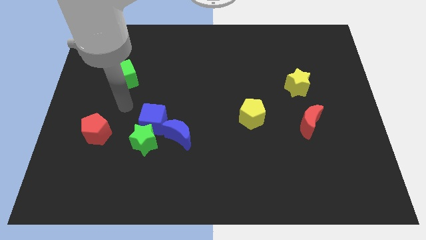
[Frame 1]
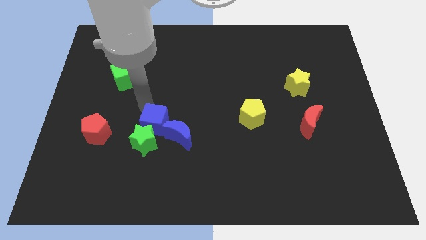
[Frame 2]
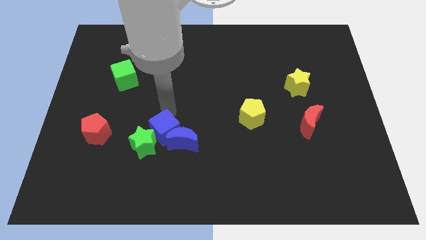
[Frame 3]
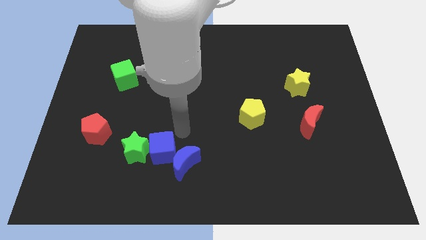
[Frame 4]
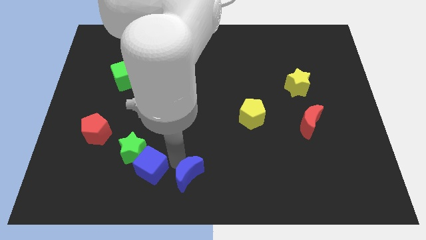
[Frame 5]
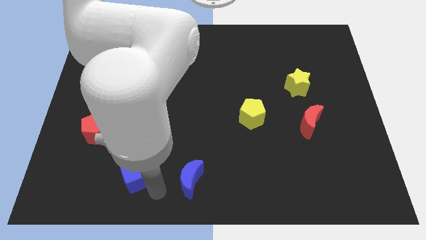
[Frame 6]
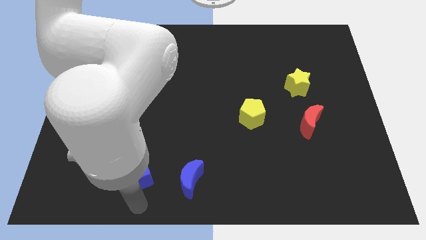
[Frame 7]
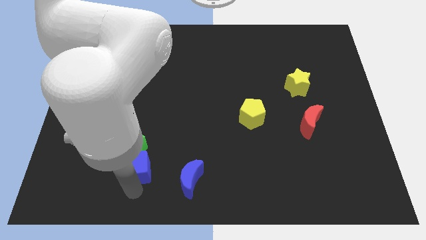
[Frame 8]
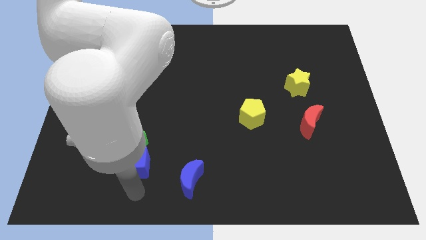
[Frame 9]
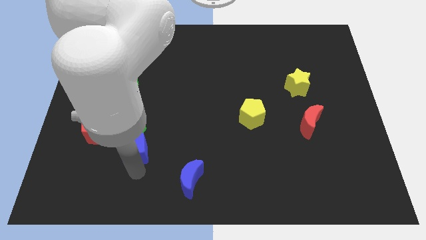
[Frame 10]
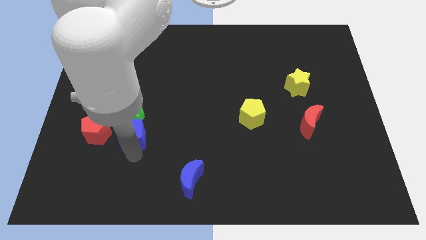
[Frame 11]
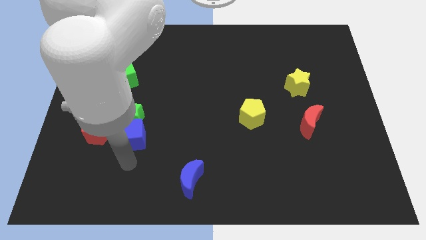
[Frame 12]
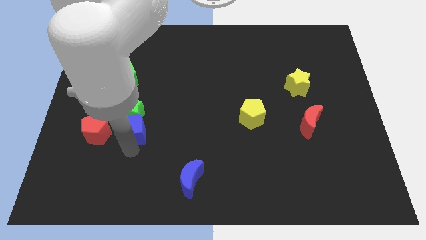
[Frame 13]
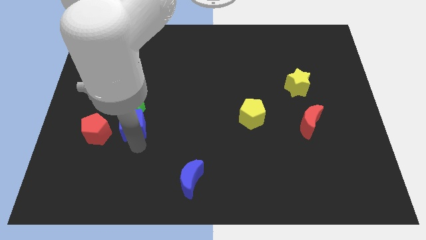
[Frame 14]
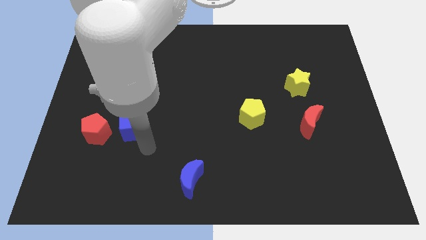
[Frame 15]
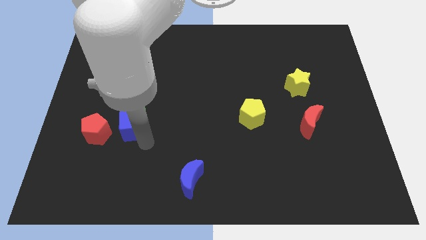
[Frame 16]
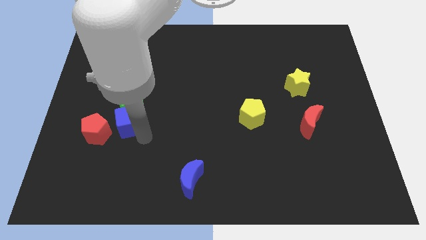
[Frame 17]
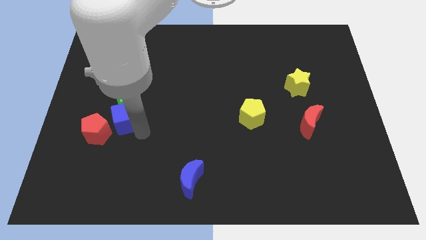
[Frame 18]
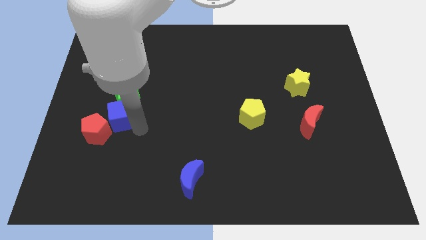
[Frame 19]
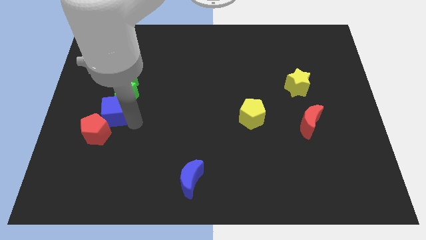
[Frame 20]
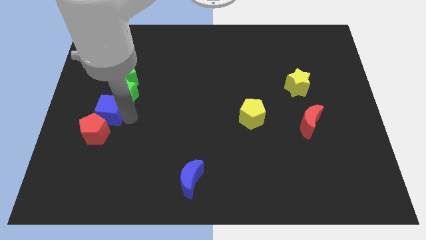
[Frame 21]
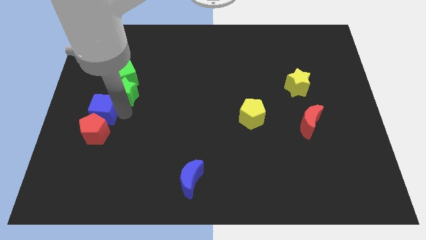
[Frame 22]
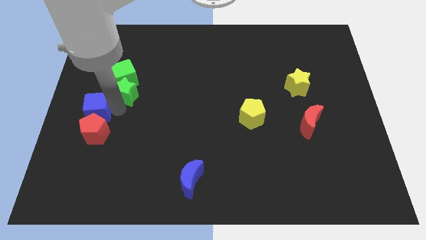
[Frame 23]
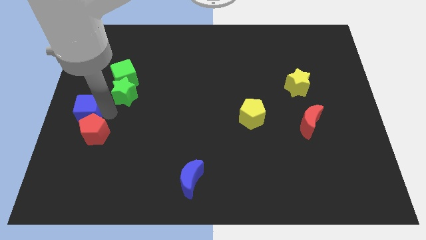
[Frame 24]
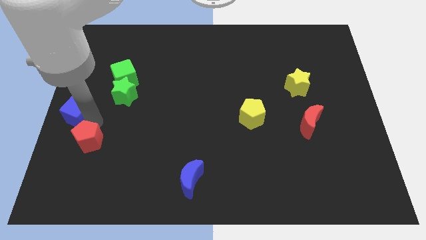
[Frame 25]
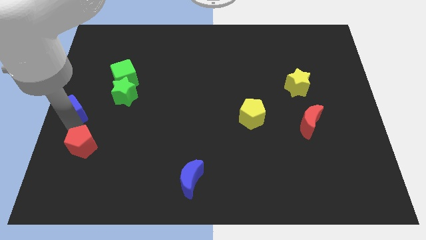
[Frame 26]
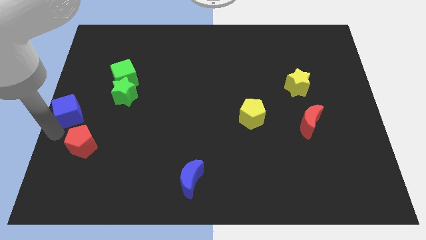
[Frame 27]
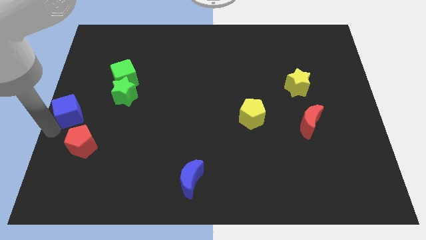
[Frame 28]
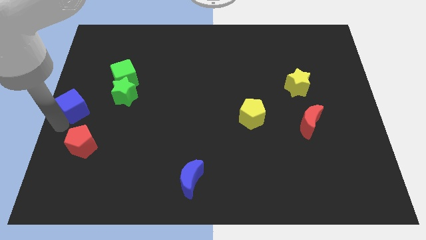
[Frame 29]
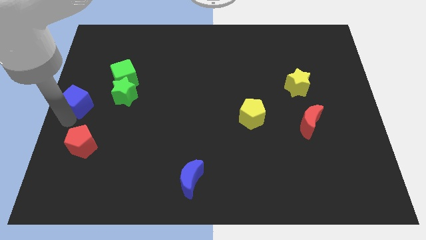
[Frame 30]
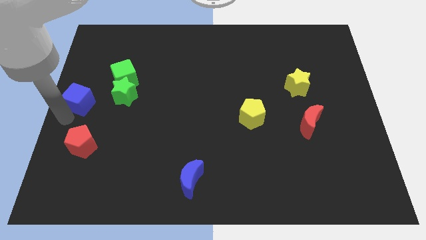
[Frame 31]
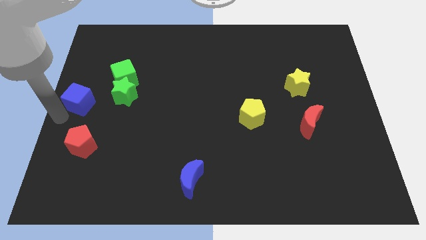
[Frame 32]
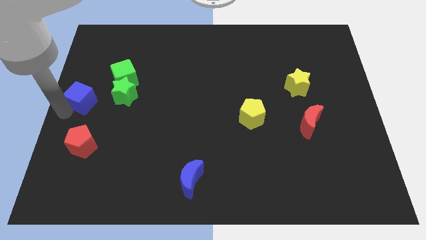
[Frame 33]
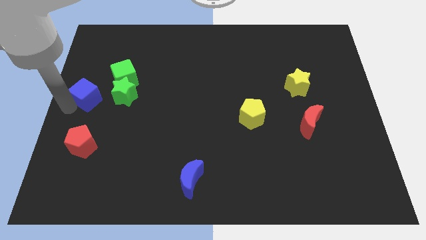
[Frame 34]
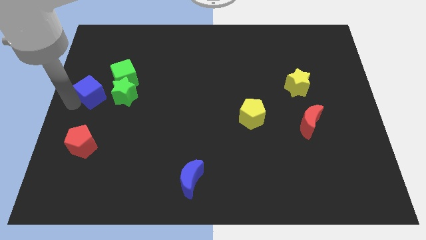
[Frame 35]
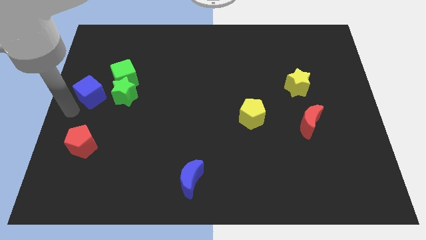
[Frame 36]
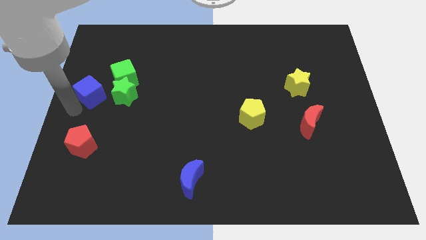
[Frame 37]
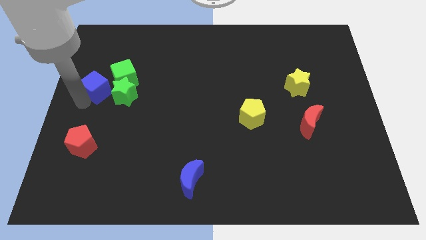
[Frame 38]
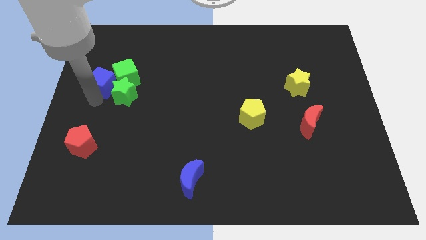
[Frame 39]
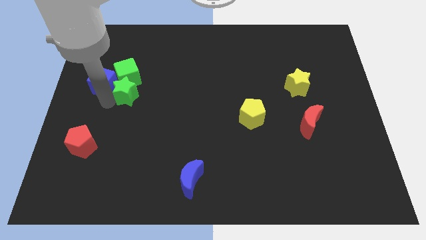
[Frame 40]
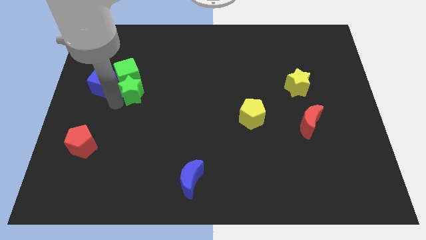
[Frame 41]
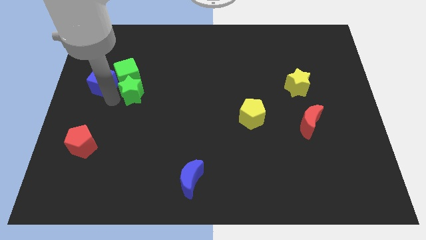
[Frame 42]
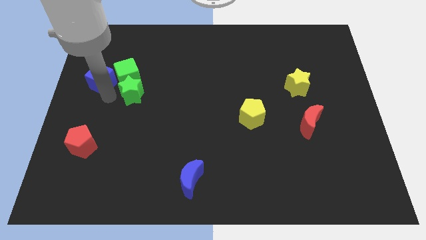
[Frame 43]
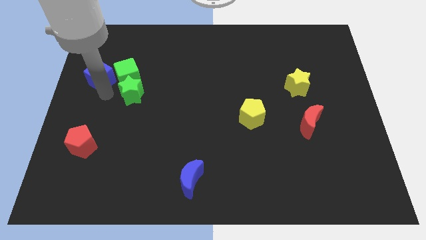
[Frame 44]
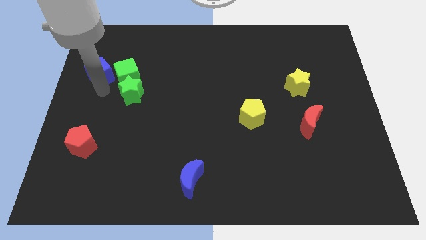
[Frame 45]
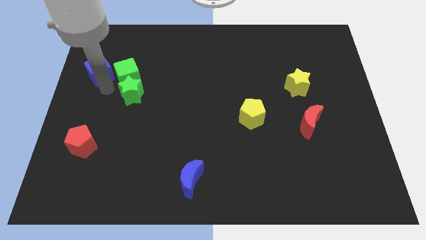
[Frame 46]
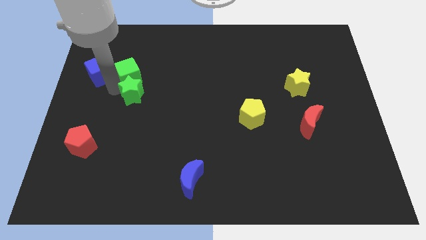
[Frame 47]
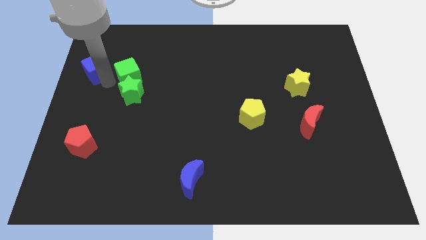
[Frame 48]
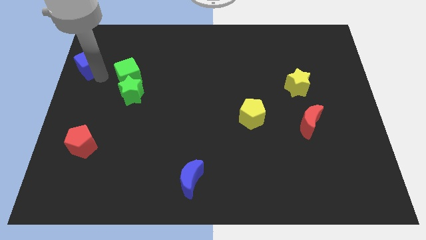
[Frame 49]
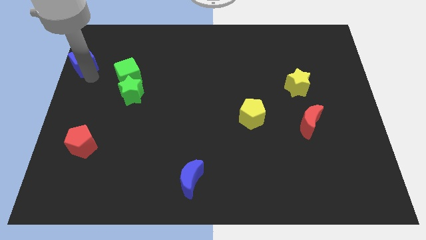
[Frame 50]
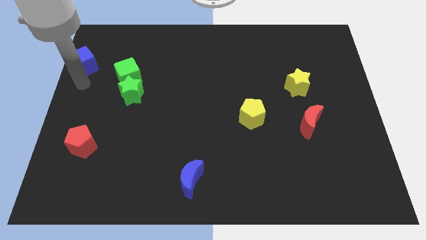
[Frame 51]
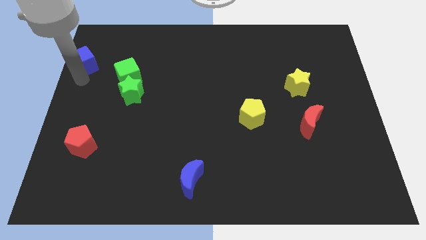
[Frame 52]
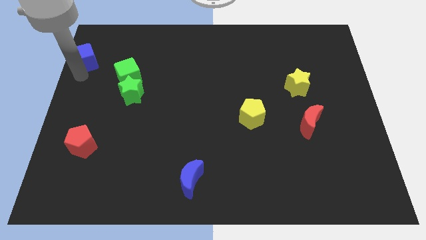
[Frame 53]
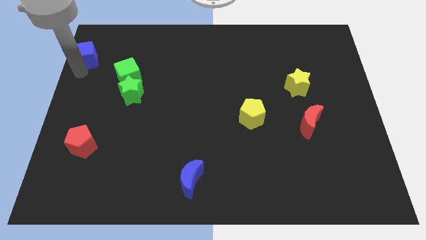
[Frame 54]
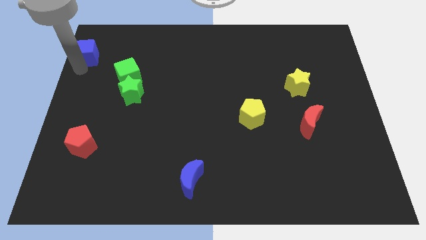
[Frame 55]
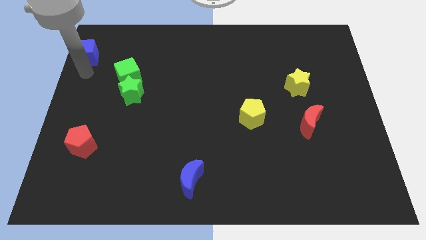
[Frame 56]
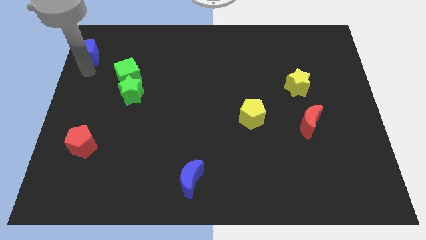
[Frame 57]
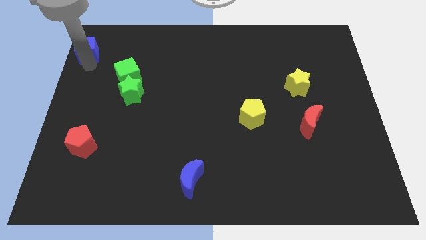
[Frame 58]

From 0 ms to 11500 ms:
slide the blue cube to the top left corner

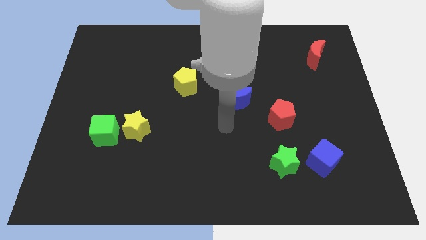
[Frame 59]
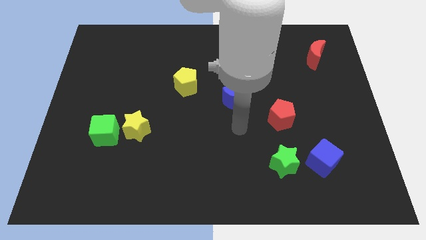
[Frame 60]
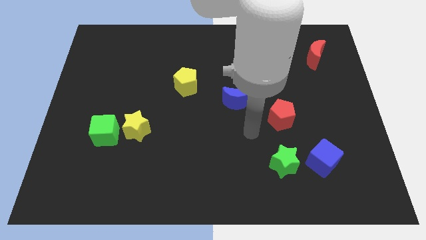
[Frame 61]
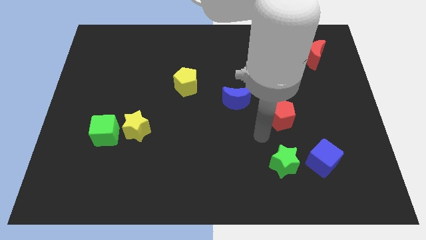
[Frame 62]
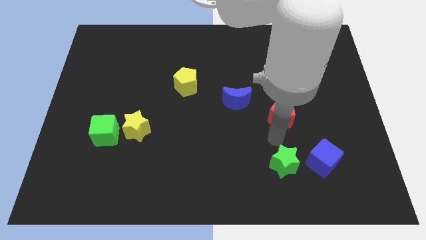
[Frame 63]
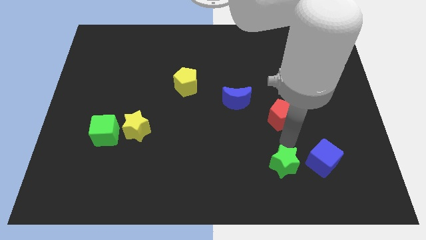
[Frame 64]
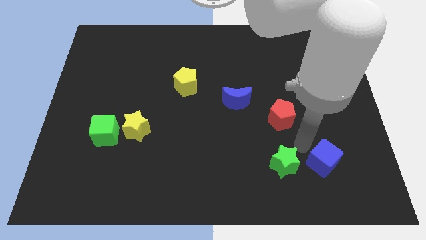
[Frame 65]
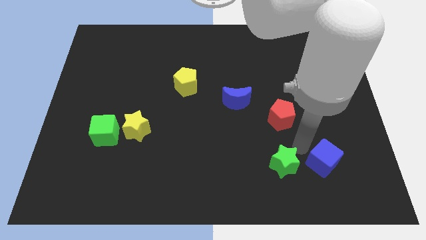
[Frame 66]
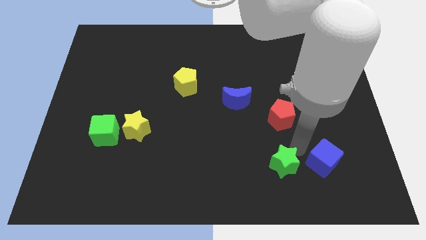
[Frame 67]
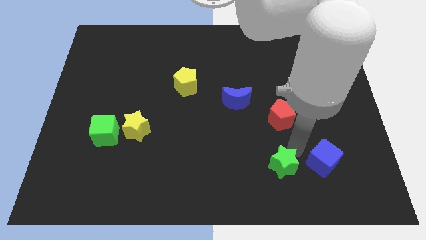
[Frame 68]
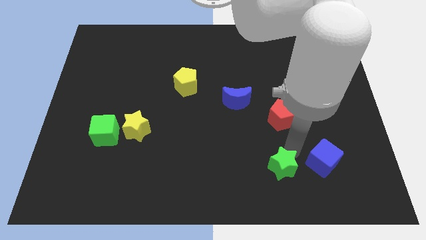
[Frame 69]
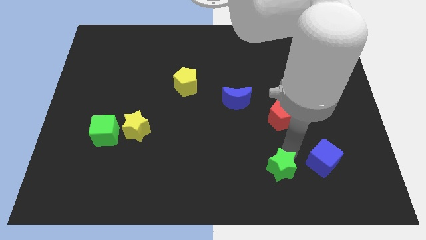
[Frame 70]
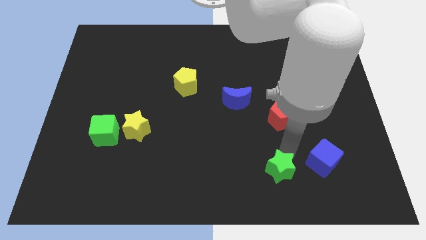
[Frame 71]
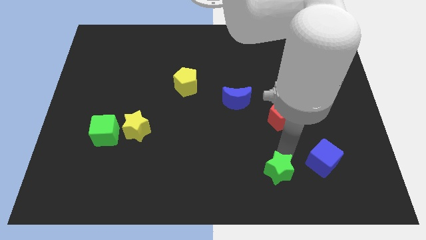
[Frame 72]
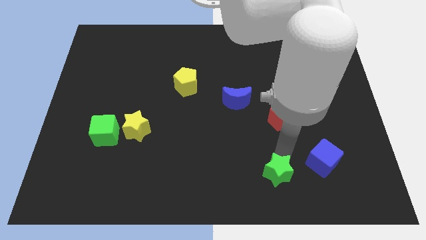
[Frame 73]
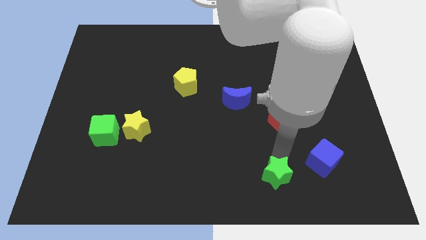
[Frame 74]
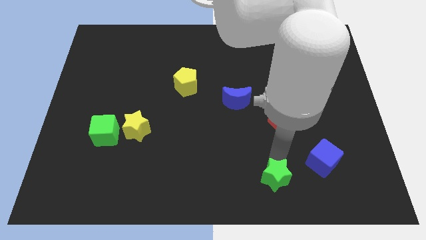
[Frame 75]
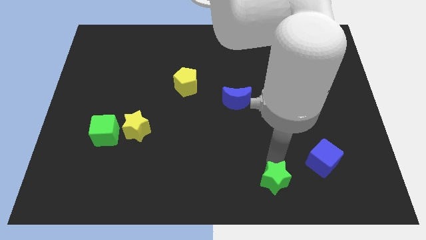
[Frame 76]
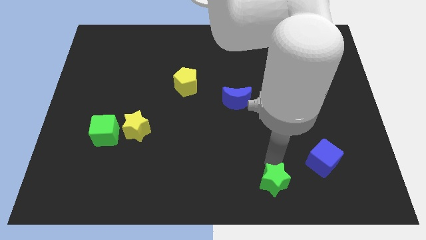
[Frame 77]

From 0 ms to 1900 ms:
push the green star to the bottom side

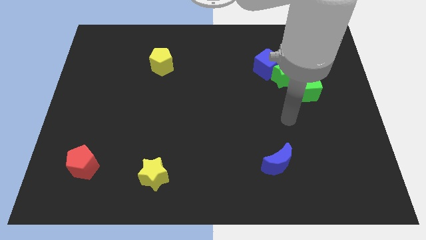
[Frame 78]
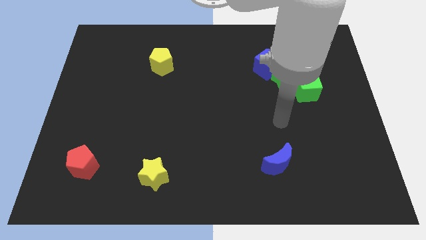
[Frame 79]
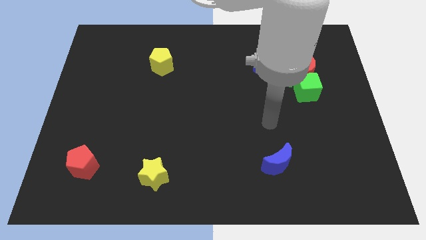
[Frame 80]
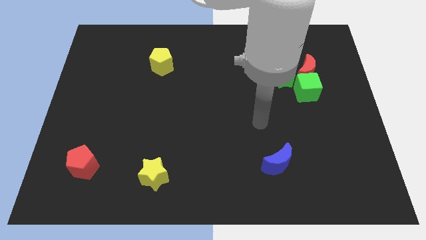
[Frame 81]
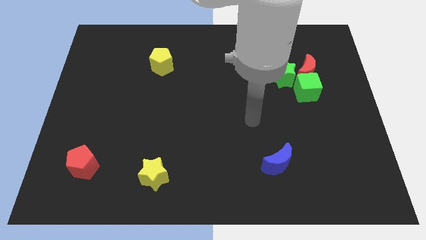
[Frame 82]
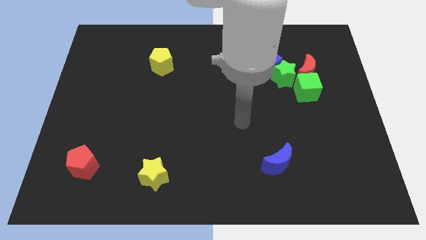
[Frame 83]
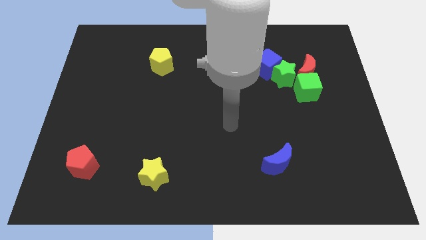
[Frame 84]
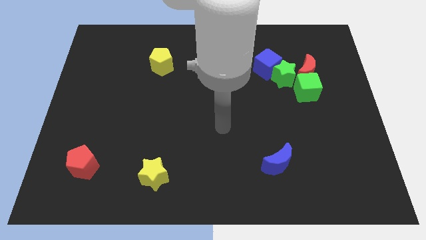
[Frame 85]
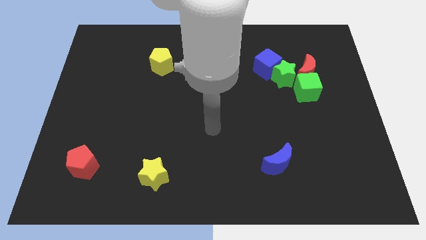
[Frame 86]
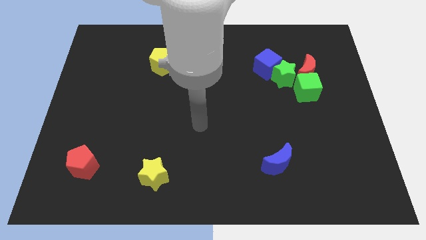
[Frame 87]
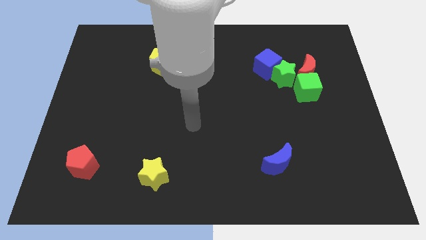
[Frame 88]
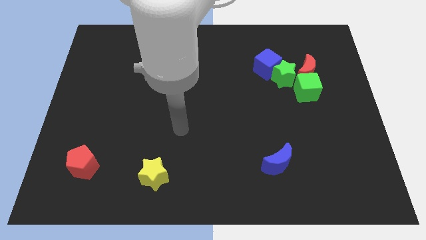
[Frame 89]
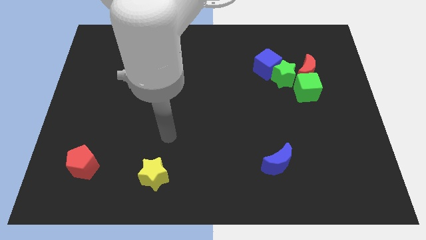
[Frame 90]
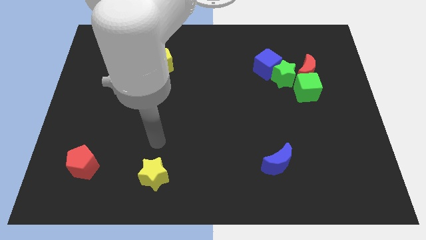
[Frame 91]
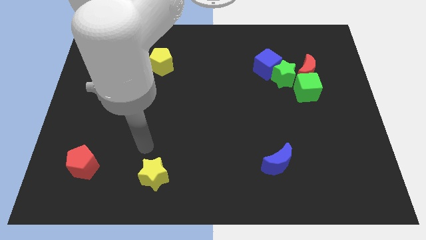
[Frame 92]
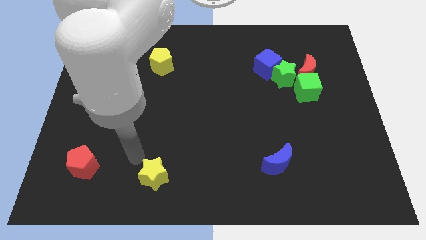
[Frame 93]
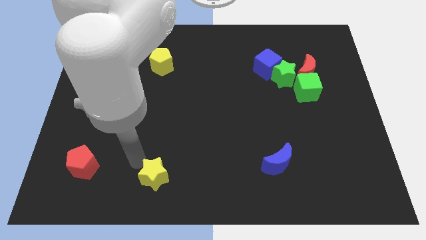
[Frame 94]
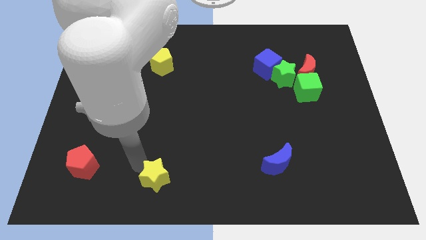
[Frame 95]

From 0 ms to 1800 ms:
push the yellow star to the bottom side
